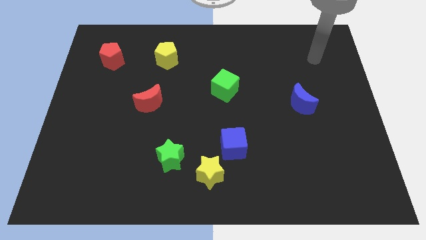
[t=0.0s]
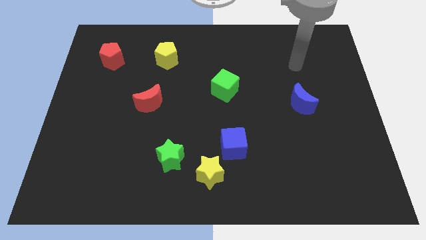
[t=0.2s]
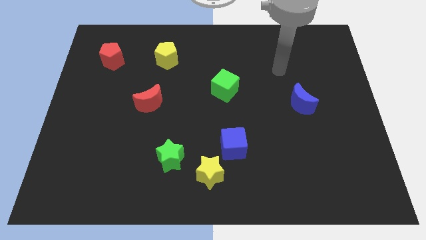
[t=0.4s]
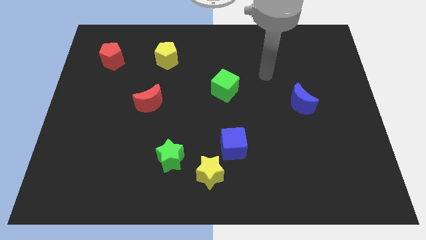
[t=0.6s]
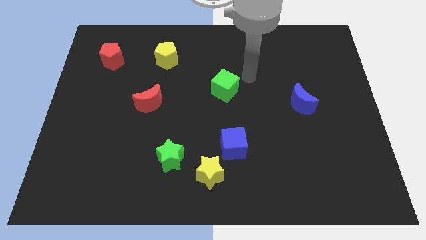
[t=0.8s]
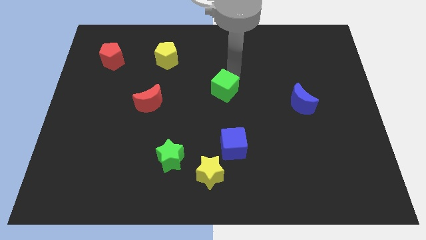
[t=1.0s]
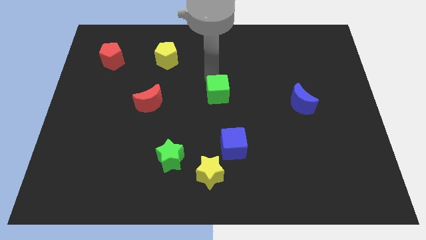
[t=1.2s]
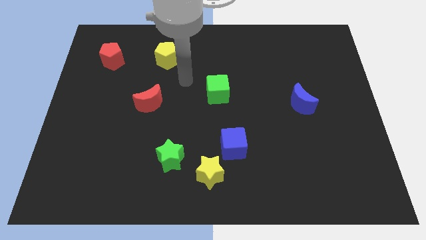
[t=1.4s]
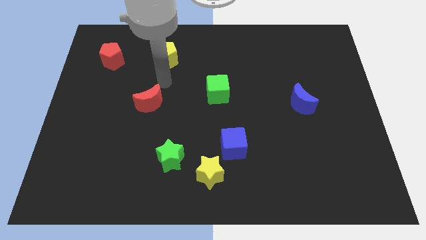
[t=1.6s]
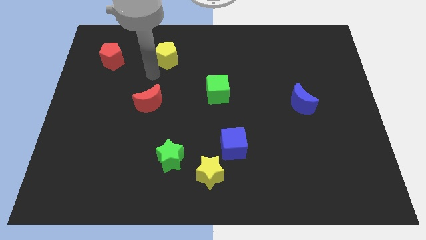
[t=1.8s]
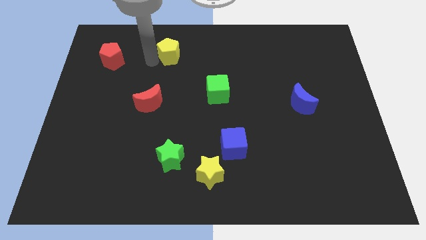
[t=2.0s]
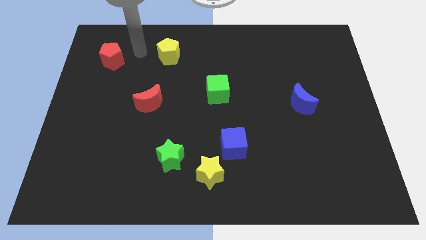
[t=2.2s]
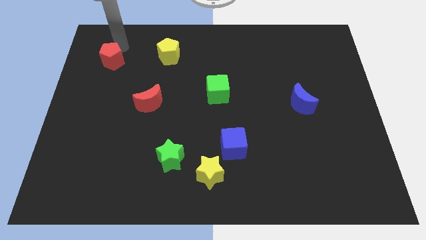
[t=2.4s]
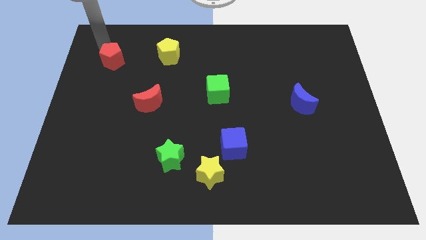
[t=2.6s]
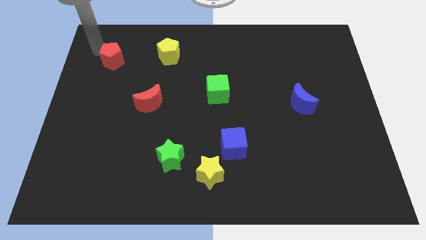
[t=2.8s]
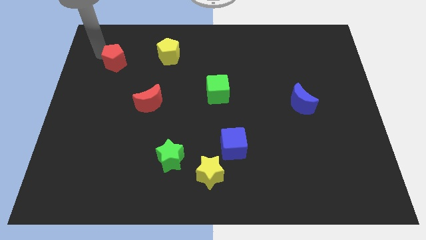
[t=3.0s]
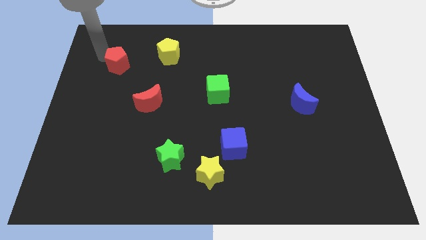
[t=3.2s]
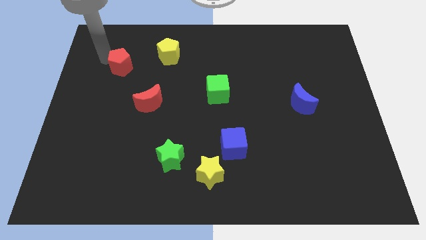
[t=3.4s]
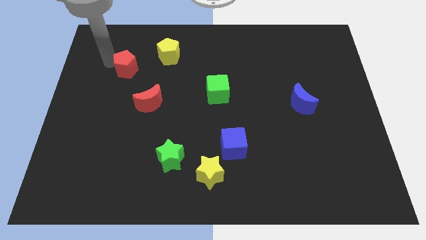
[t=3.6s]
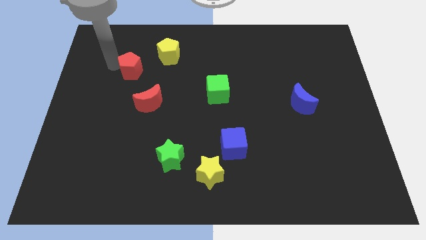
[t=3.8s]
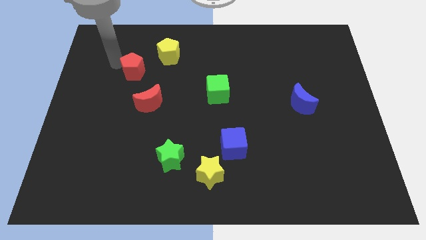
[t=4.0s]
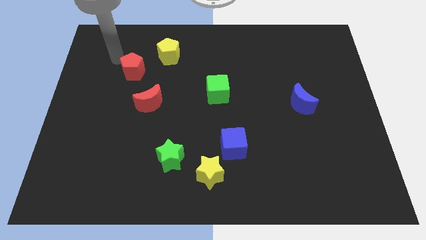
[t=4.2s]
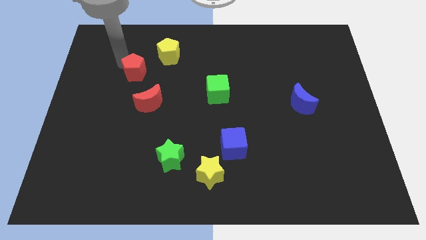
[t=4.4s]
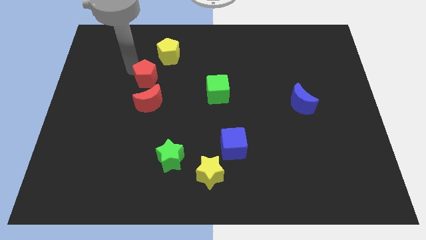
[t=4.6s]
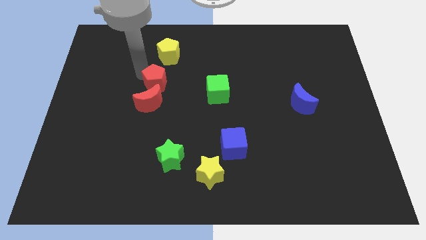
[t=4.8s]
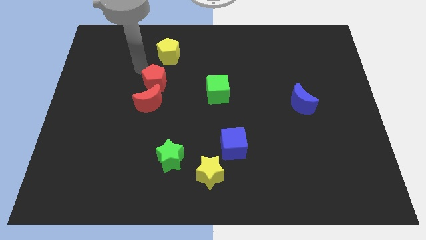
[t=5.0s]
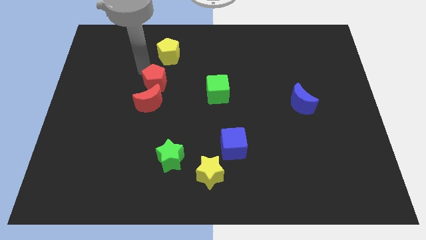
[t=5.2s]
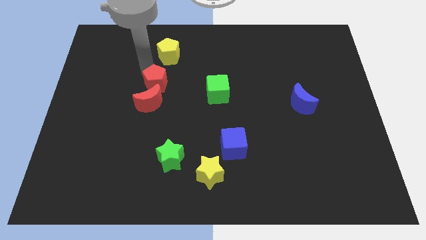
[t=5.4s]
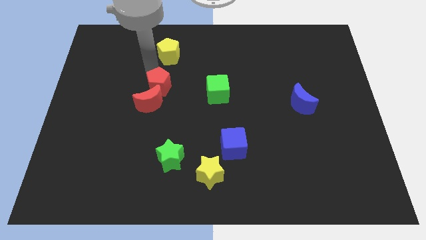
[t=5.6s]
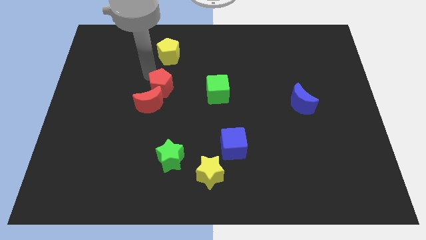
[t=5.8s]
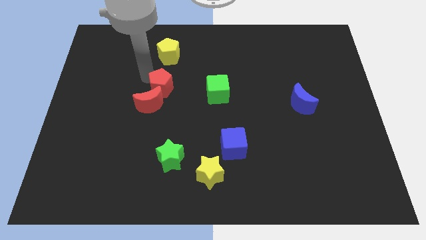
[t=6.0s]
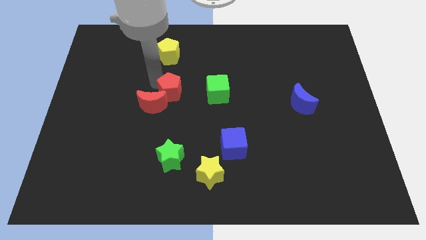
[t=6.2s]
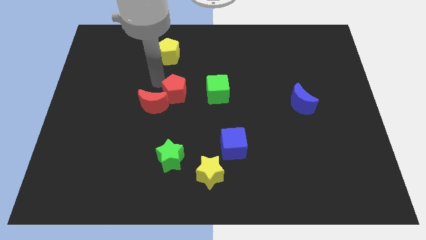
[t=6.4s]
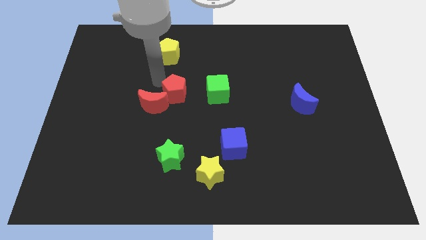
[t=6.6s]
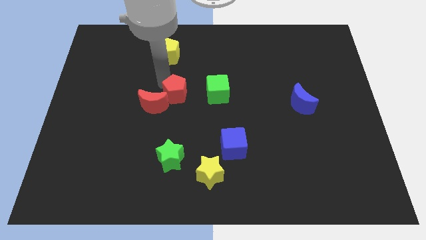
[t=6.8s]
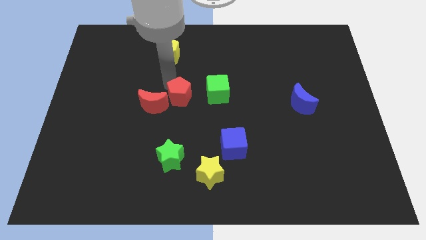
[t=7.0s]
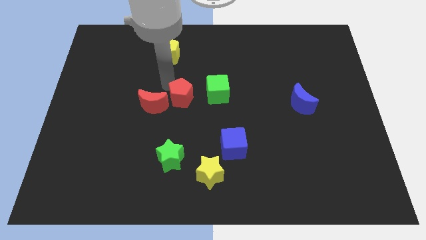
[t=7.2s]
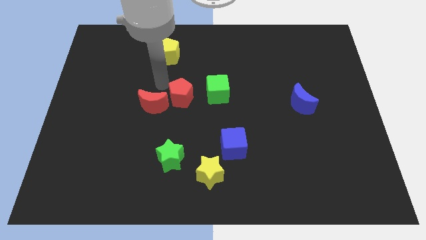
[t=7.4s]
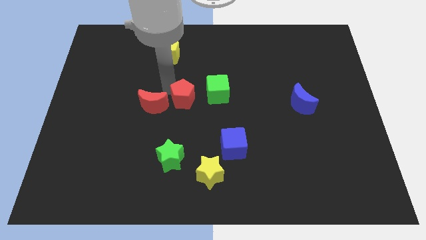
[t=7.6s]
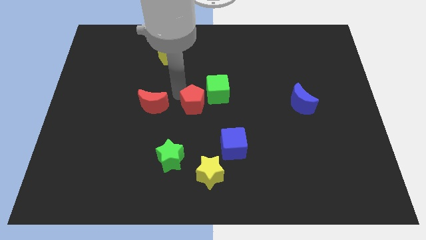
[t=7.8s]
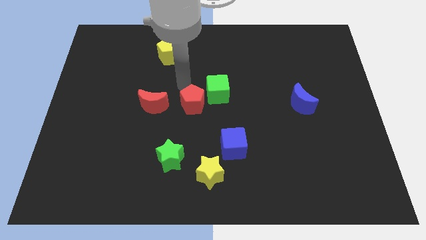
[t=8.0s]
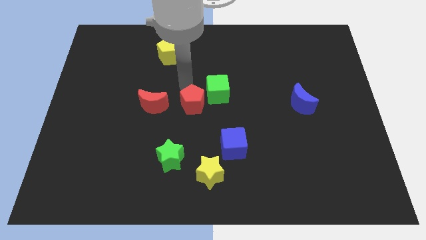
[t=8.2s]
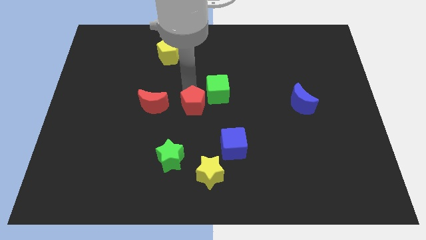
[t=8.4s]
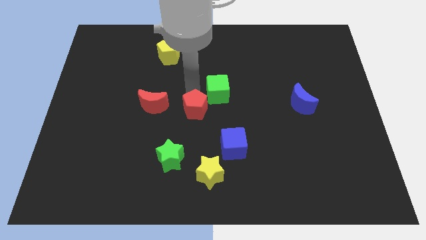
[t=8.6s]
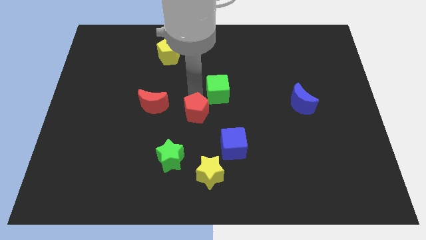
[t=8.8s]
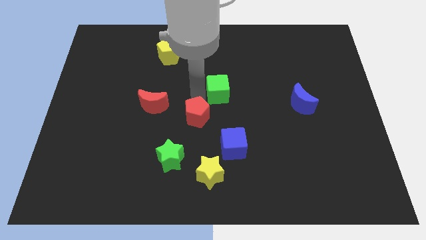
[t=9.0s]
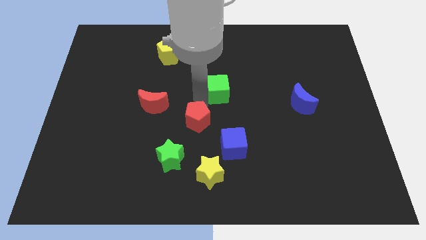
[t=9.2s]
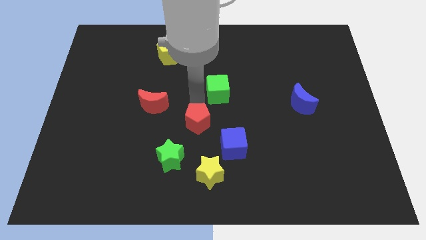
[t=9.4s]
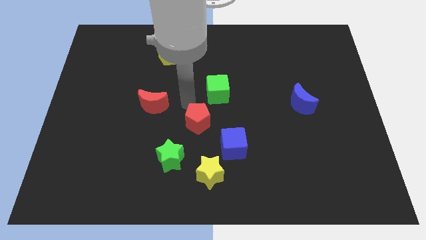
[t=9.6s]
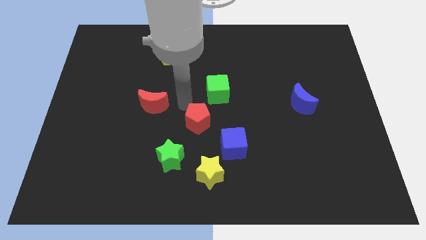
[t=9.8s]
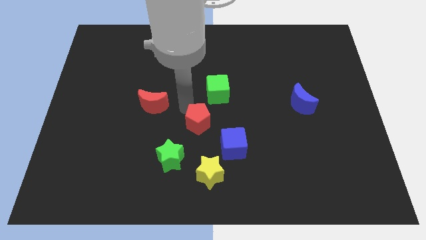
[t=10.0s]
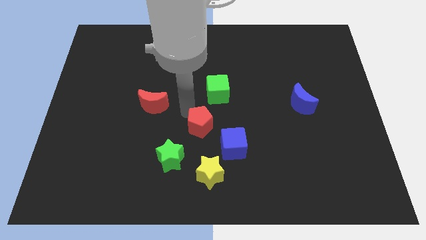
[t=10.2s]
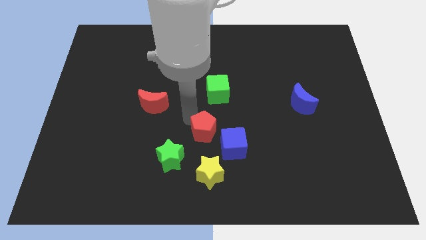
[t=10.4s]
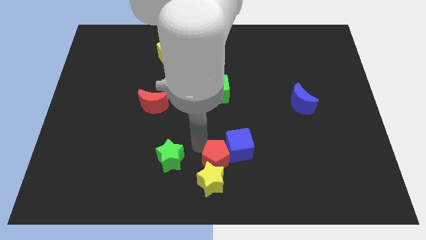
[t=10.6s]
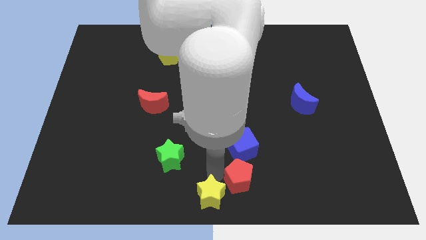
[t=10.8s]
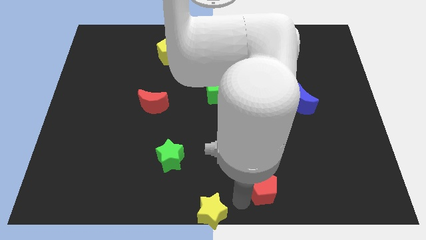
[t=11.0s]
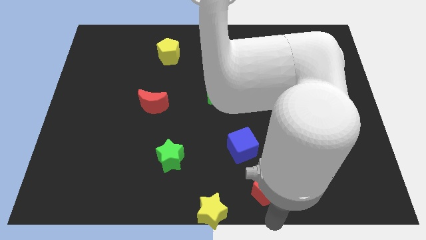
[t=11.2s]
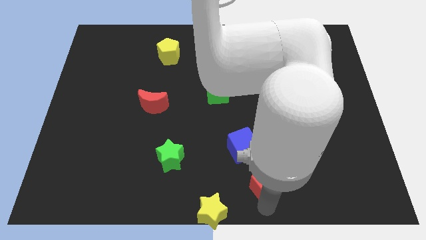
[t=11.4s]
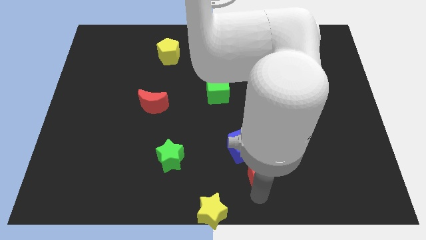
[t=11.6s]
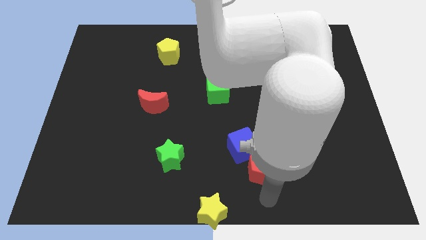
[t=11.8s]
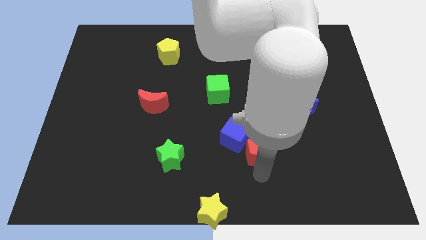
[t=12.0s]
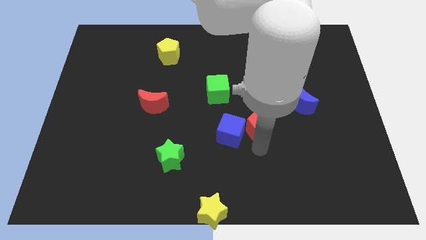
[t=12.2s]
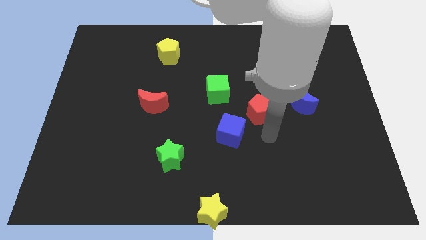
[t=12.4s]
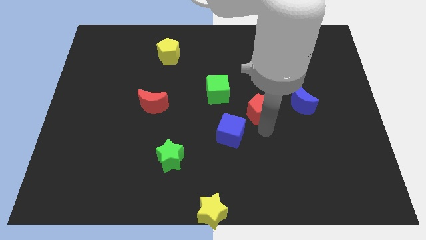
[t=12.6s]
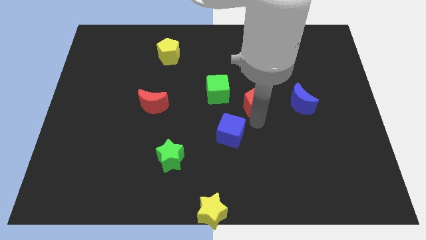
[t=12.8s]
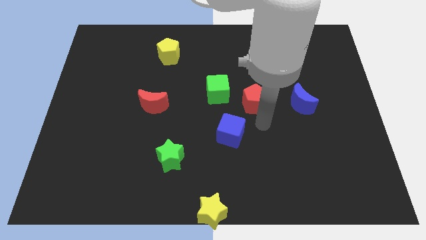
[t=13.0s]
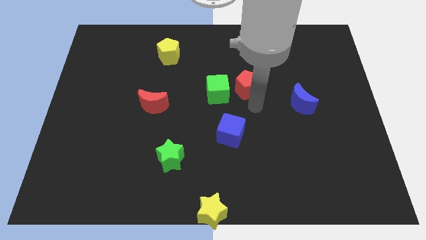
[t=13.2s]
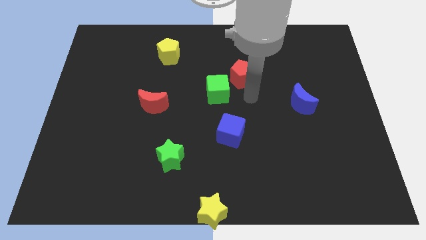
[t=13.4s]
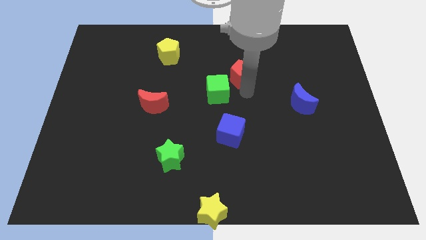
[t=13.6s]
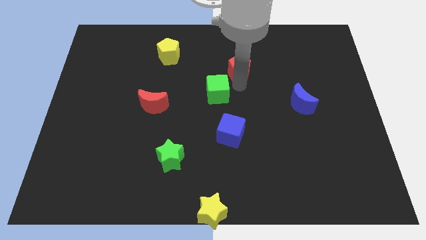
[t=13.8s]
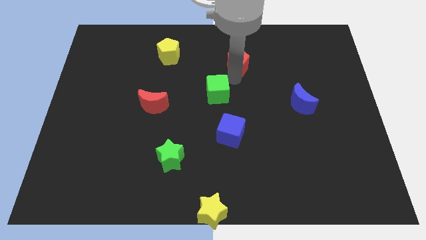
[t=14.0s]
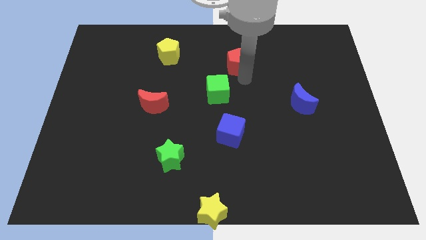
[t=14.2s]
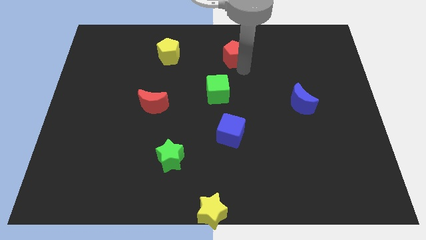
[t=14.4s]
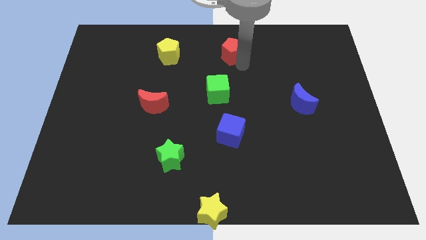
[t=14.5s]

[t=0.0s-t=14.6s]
move the red pentagon to the towards your base

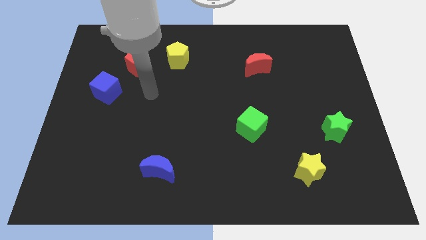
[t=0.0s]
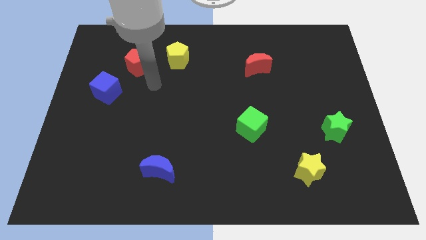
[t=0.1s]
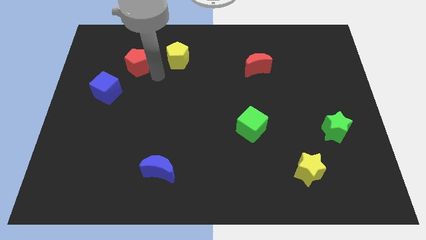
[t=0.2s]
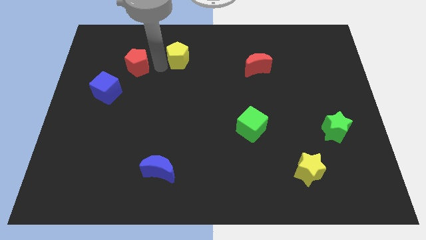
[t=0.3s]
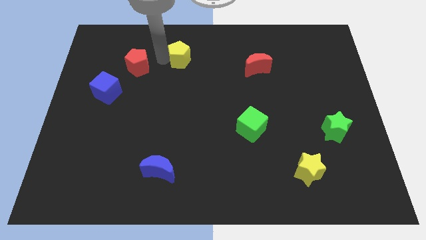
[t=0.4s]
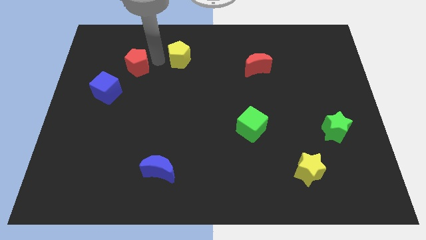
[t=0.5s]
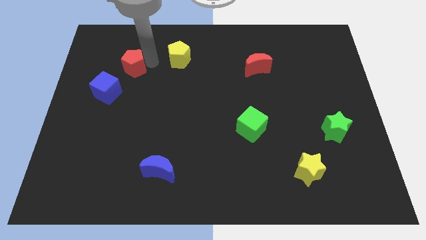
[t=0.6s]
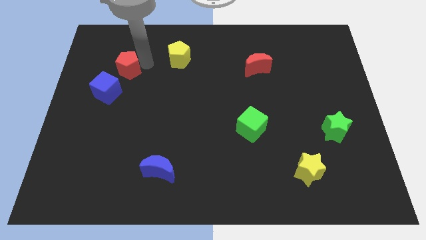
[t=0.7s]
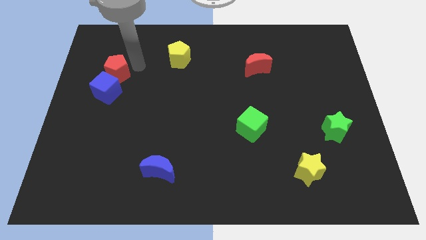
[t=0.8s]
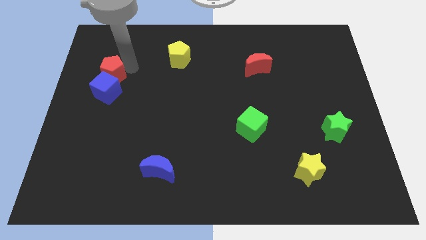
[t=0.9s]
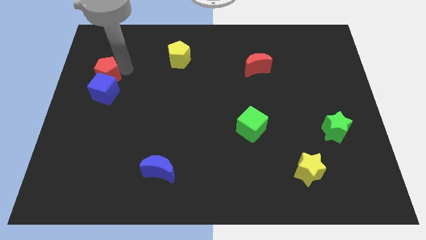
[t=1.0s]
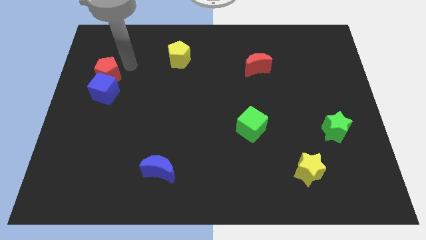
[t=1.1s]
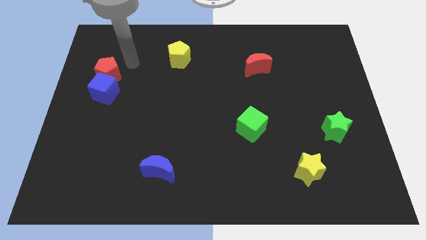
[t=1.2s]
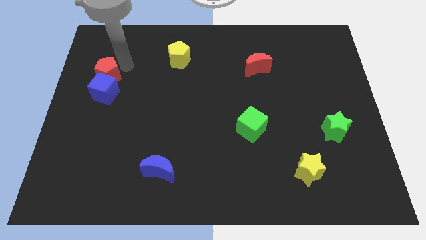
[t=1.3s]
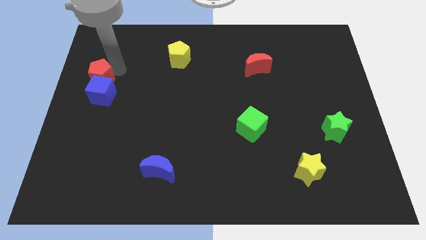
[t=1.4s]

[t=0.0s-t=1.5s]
move the red pentagon to the center left
